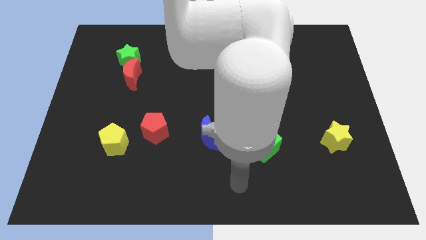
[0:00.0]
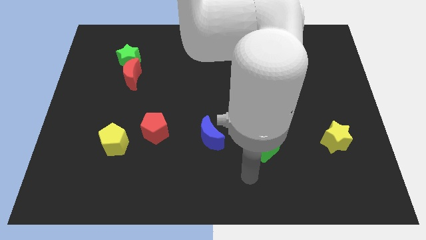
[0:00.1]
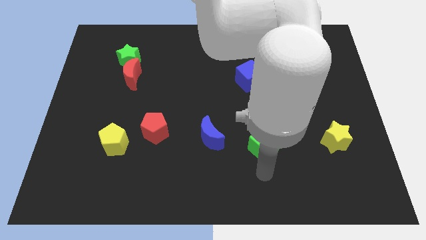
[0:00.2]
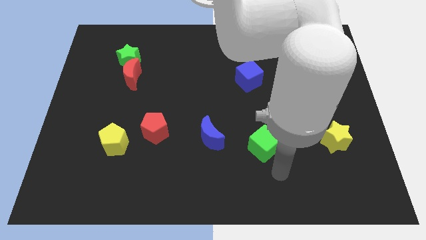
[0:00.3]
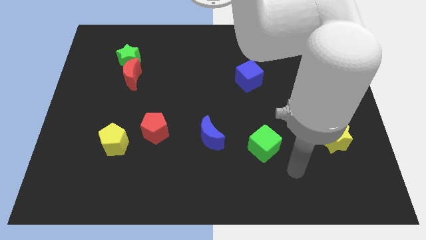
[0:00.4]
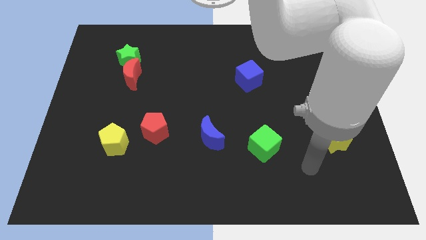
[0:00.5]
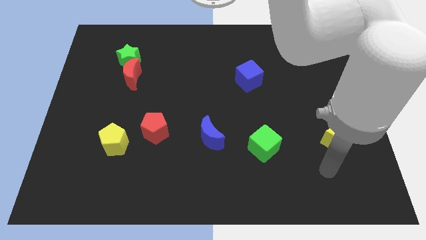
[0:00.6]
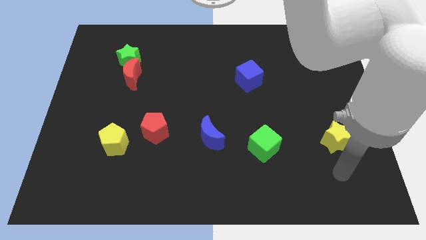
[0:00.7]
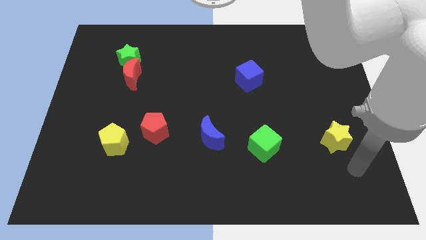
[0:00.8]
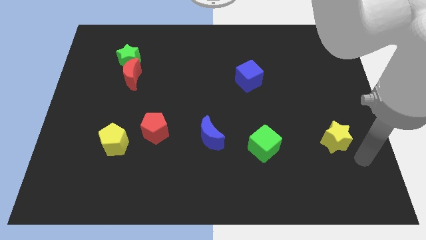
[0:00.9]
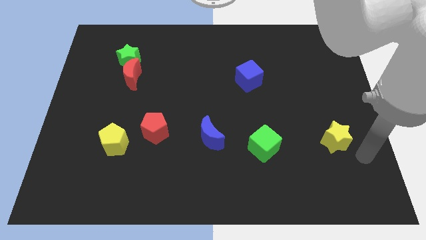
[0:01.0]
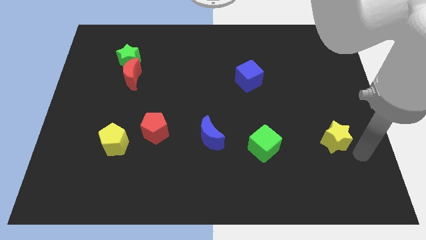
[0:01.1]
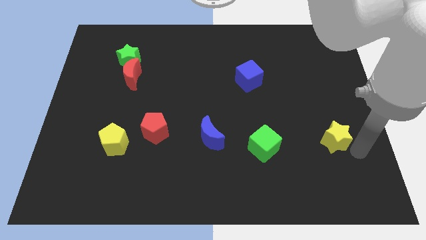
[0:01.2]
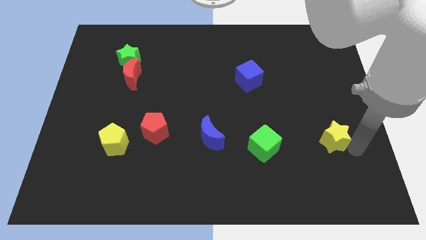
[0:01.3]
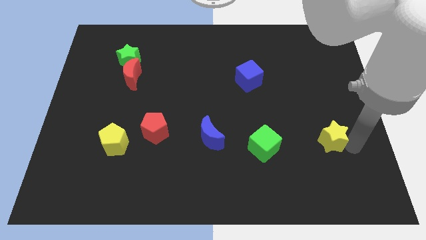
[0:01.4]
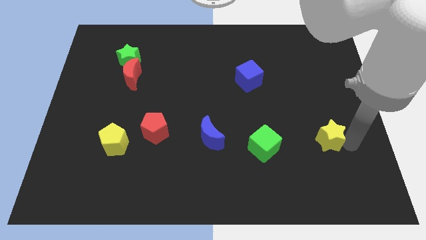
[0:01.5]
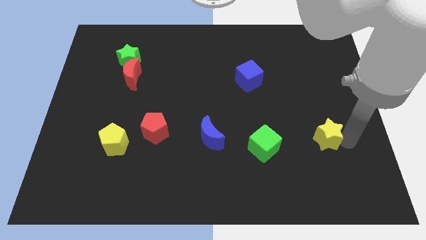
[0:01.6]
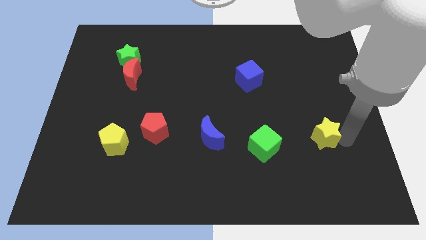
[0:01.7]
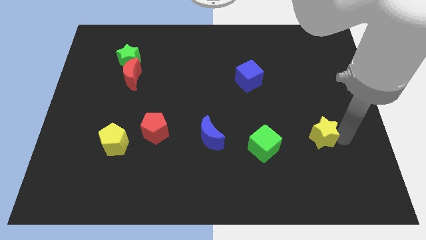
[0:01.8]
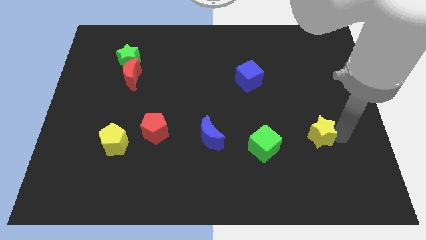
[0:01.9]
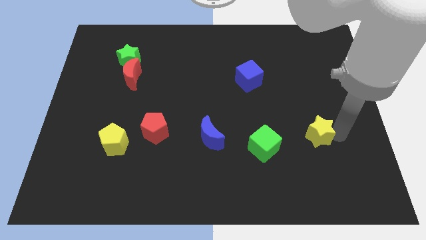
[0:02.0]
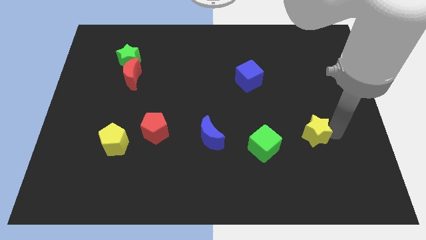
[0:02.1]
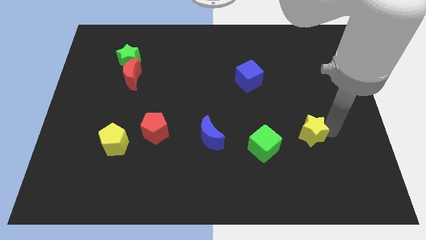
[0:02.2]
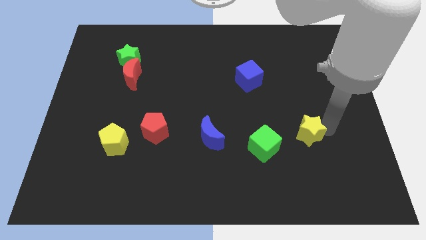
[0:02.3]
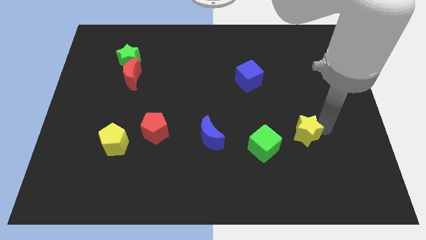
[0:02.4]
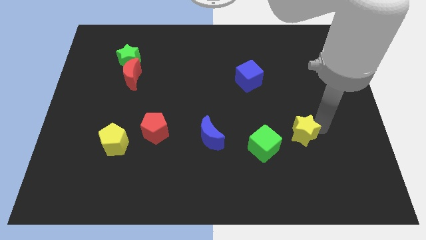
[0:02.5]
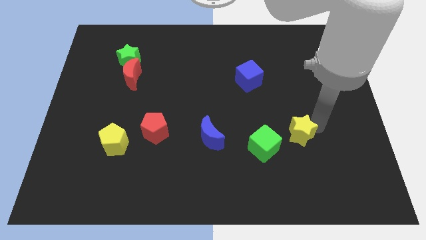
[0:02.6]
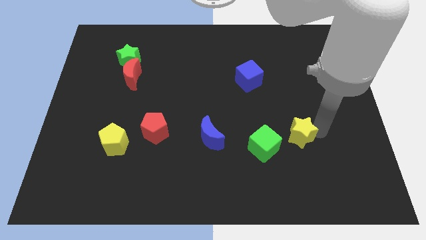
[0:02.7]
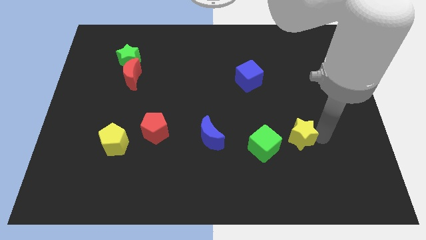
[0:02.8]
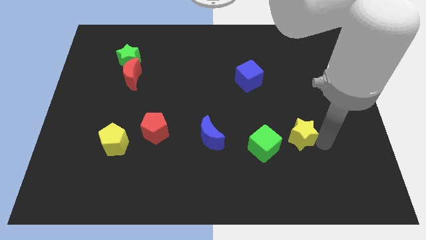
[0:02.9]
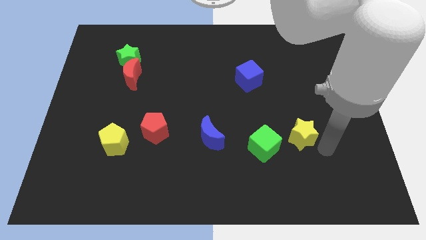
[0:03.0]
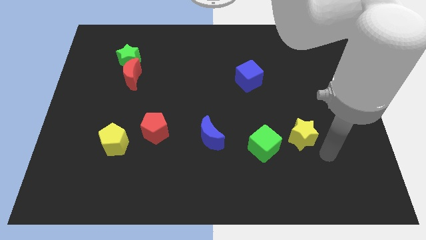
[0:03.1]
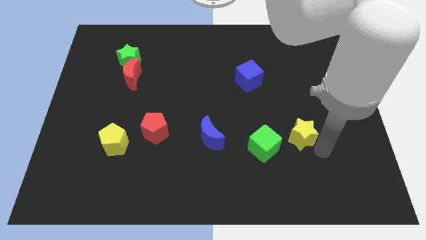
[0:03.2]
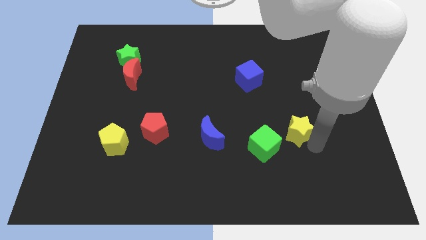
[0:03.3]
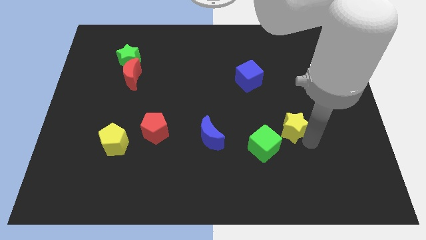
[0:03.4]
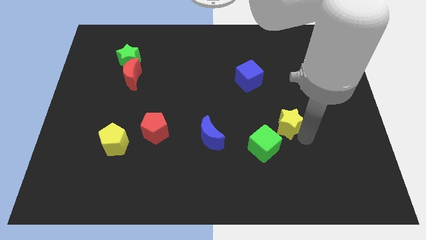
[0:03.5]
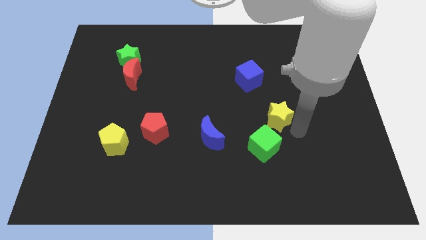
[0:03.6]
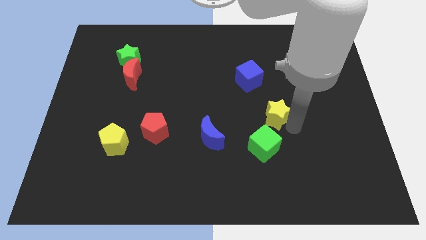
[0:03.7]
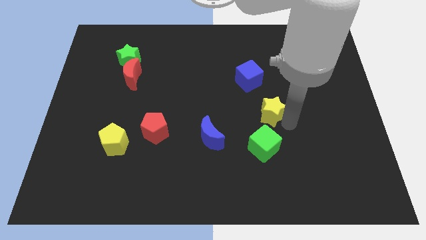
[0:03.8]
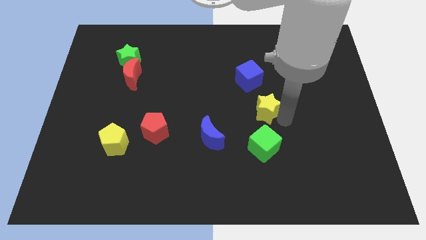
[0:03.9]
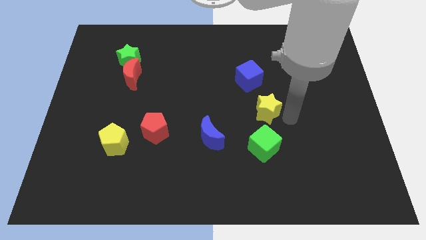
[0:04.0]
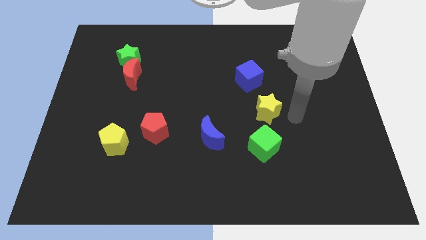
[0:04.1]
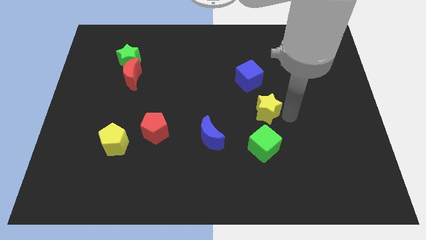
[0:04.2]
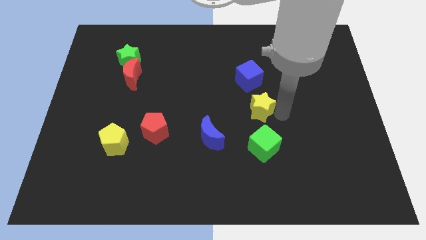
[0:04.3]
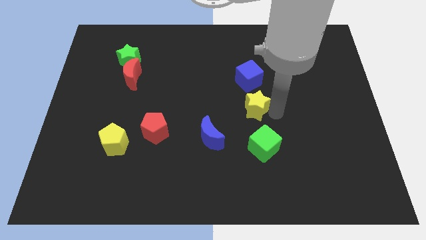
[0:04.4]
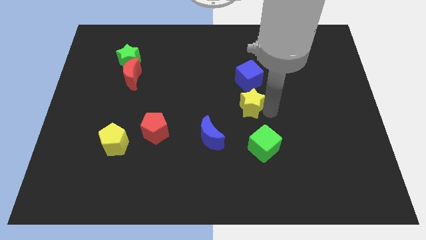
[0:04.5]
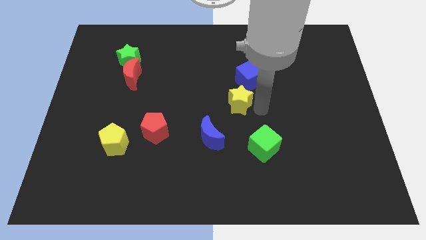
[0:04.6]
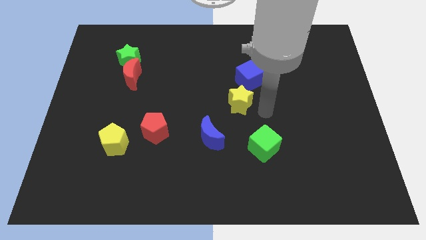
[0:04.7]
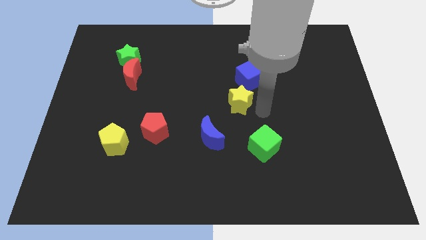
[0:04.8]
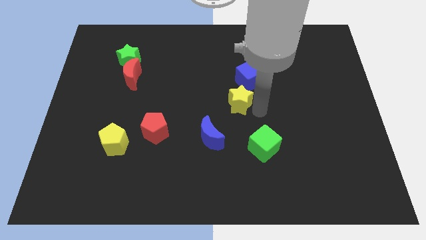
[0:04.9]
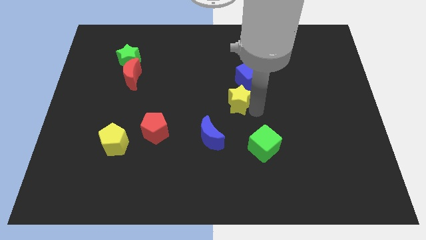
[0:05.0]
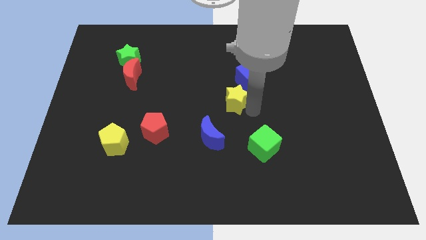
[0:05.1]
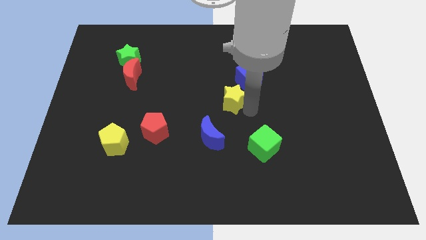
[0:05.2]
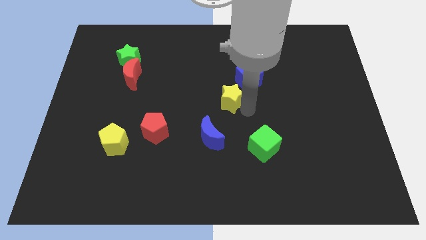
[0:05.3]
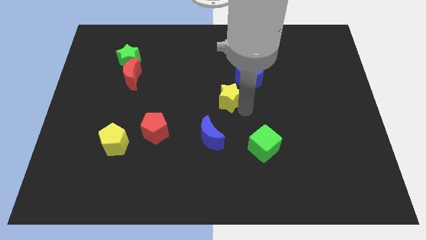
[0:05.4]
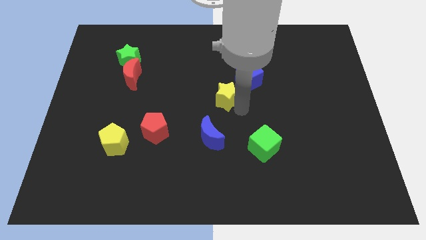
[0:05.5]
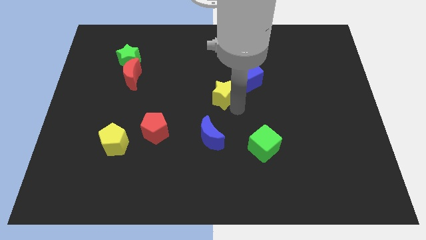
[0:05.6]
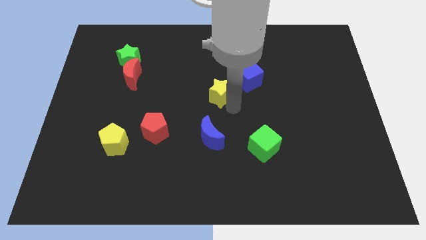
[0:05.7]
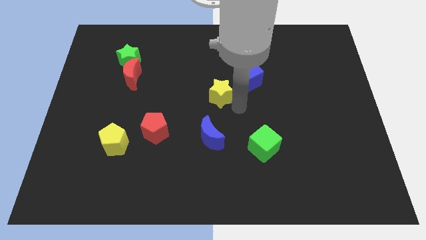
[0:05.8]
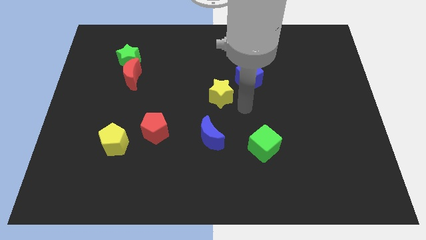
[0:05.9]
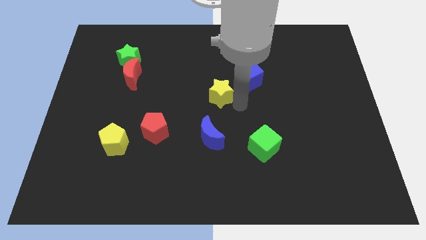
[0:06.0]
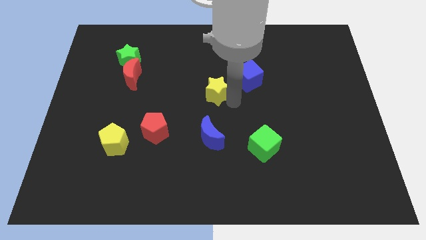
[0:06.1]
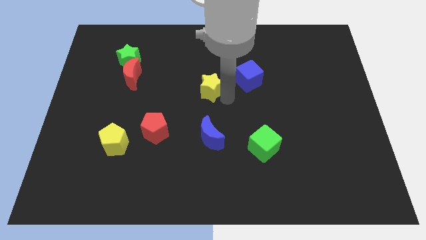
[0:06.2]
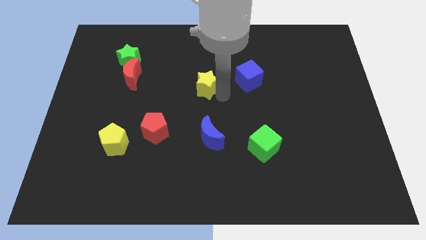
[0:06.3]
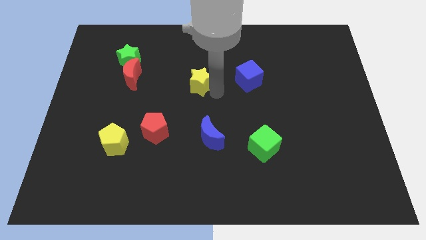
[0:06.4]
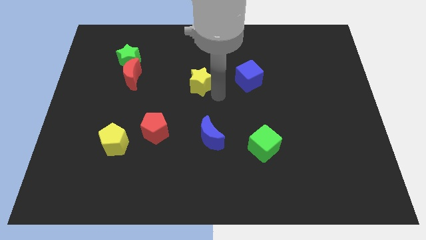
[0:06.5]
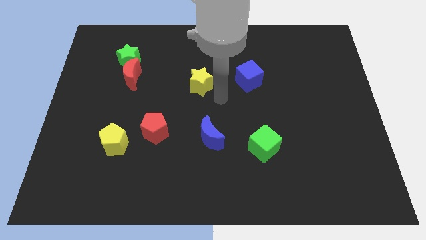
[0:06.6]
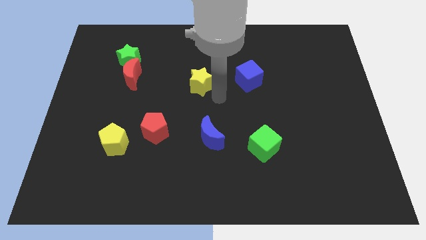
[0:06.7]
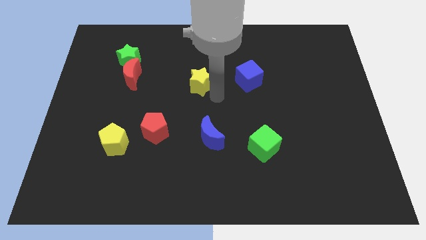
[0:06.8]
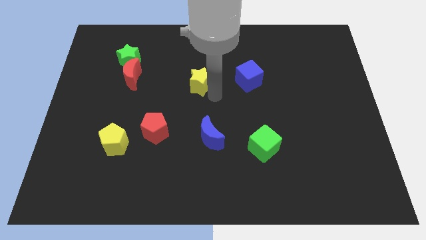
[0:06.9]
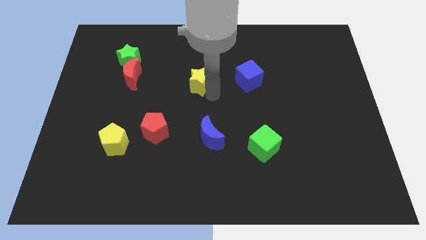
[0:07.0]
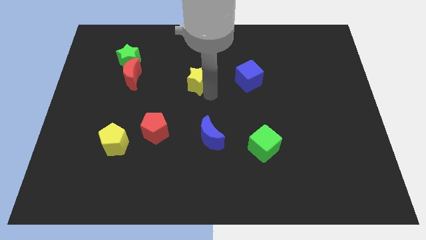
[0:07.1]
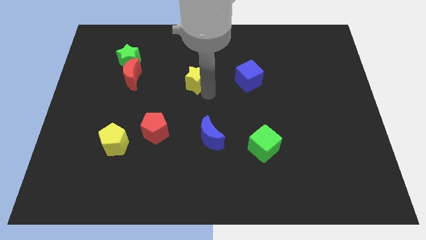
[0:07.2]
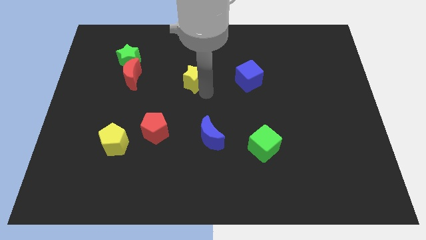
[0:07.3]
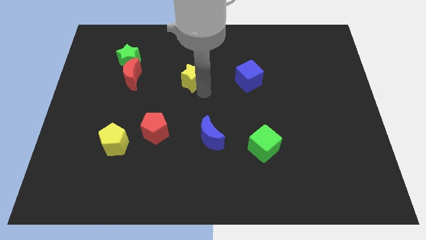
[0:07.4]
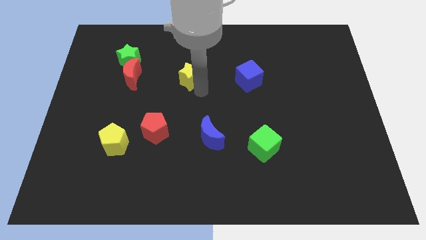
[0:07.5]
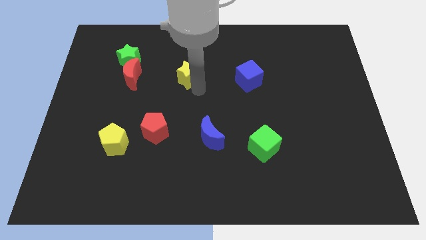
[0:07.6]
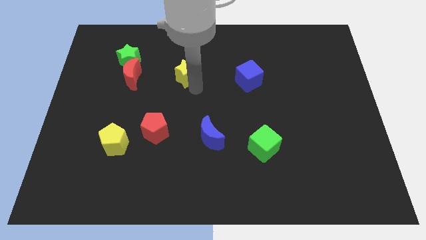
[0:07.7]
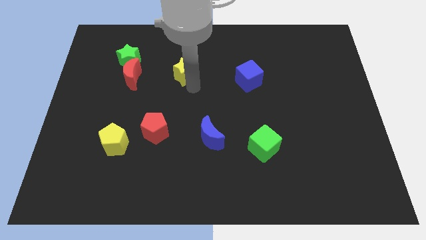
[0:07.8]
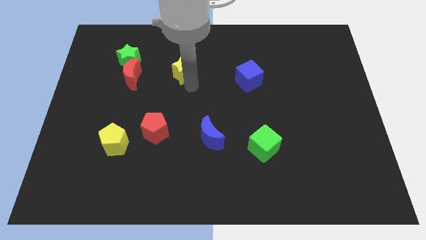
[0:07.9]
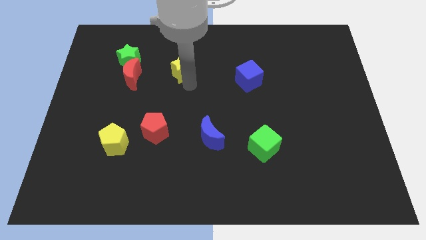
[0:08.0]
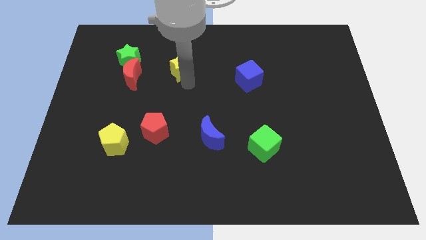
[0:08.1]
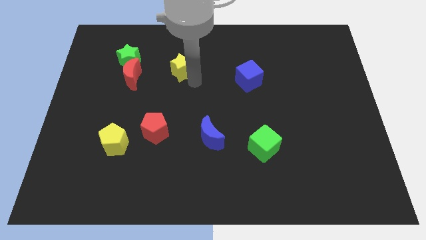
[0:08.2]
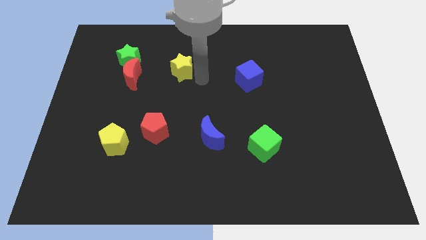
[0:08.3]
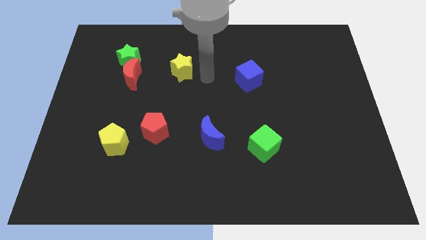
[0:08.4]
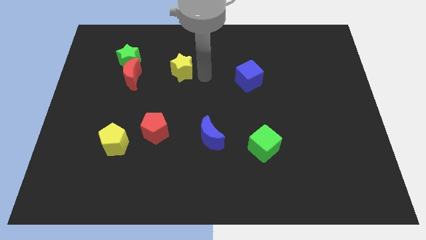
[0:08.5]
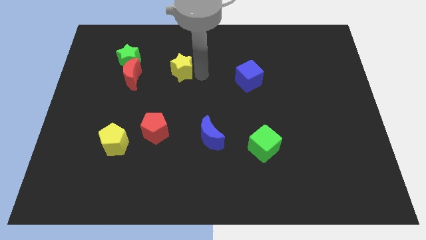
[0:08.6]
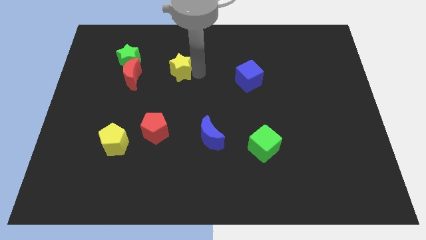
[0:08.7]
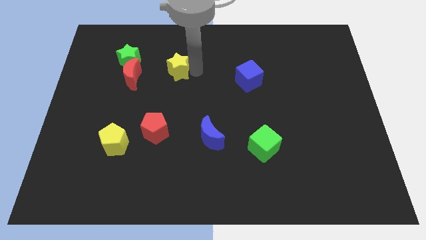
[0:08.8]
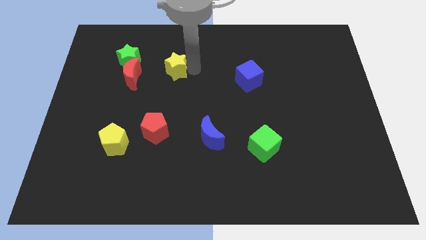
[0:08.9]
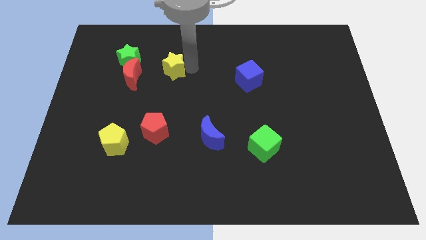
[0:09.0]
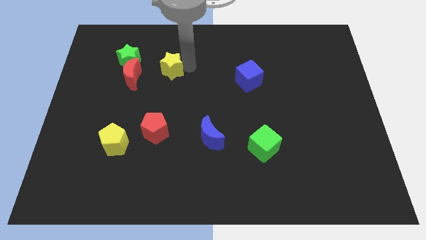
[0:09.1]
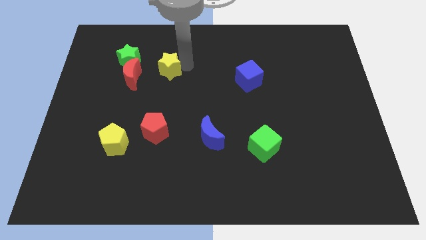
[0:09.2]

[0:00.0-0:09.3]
put the yellow star to the top right of the red moon
